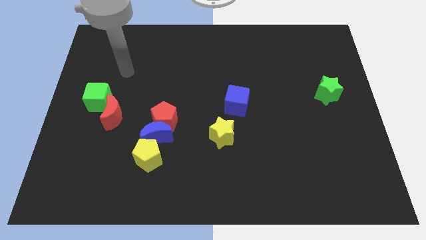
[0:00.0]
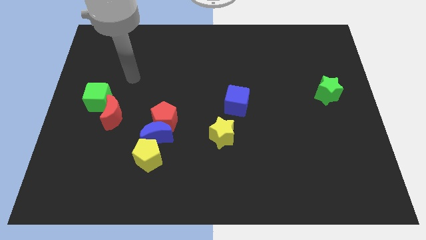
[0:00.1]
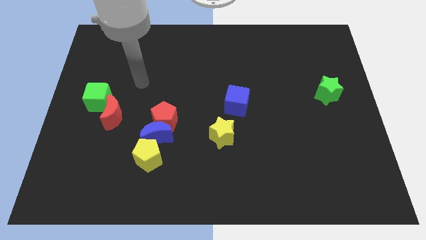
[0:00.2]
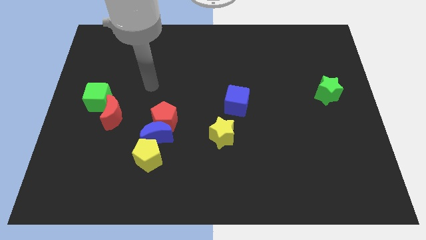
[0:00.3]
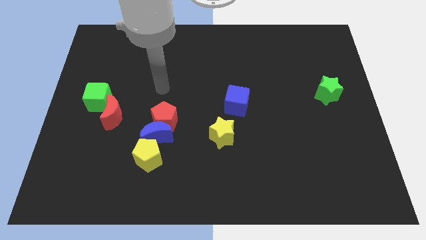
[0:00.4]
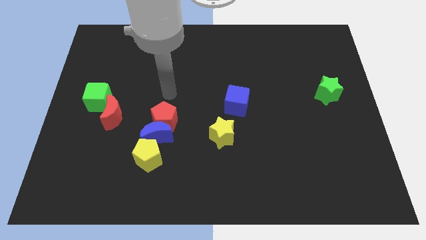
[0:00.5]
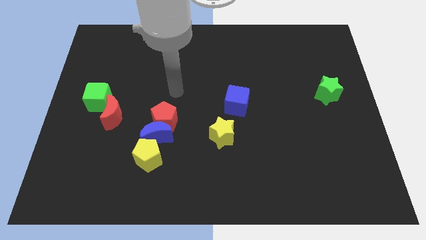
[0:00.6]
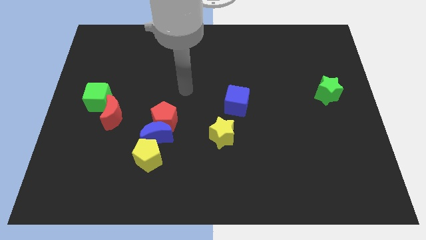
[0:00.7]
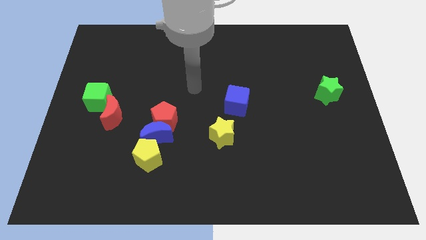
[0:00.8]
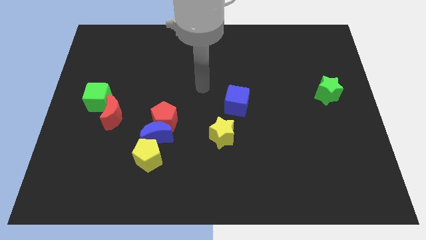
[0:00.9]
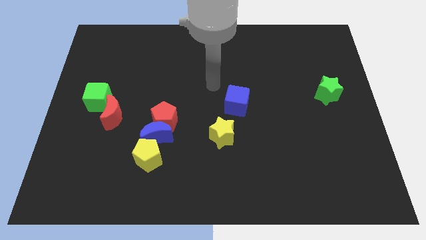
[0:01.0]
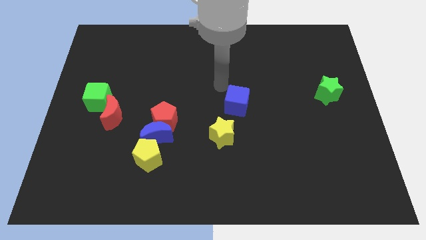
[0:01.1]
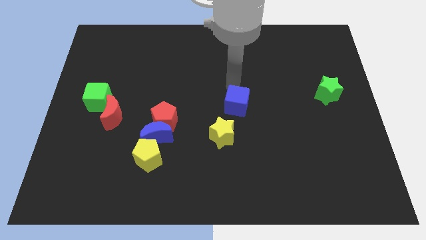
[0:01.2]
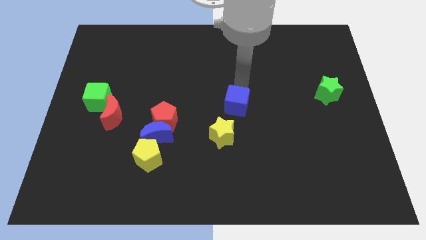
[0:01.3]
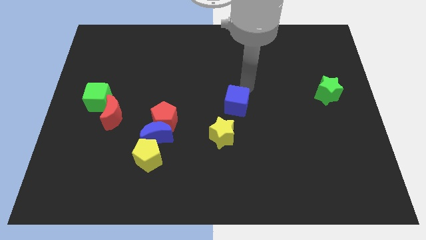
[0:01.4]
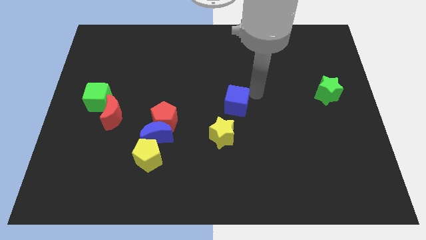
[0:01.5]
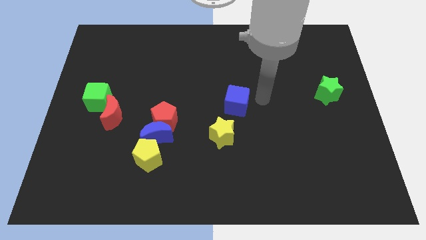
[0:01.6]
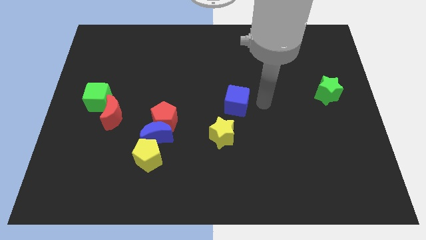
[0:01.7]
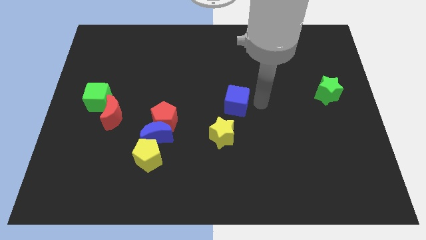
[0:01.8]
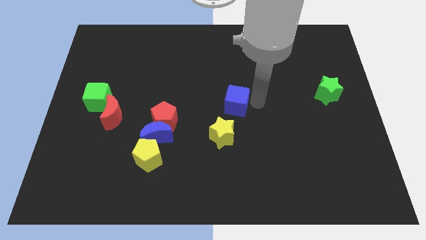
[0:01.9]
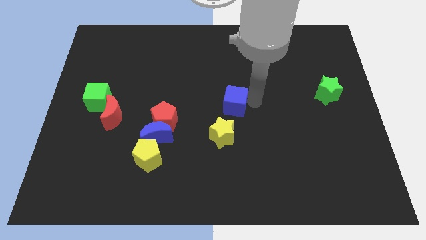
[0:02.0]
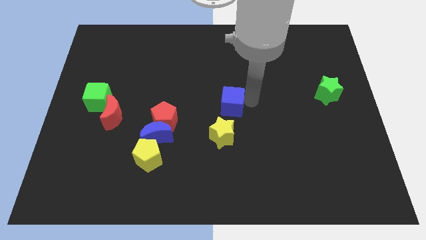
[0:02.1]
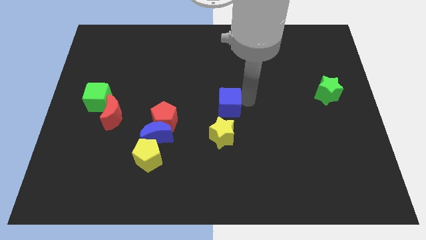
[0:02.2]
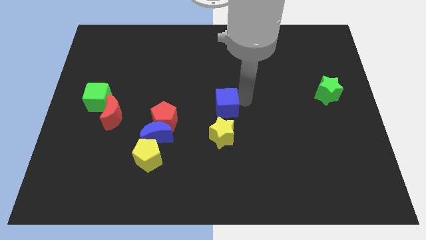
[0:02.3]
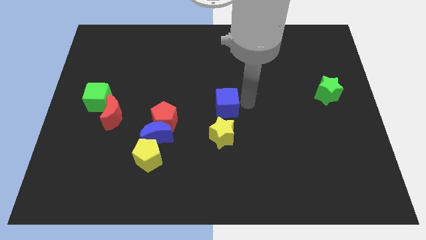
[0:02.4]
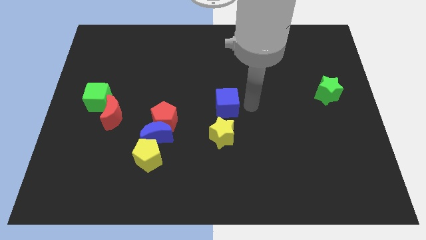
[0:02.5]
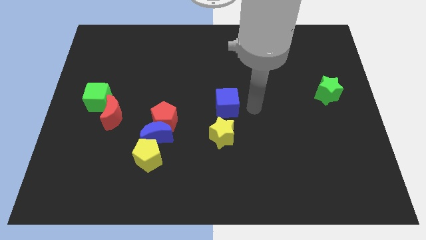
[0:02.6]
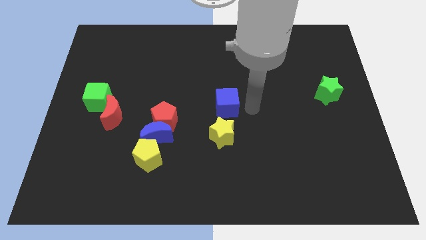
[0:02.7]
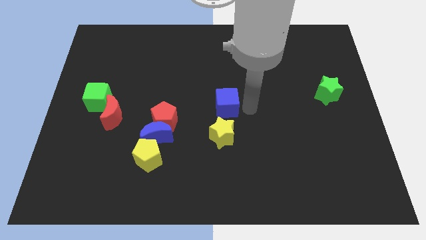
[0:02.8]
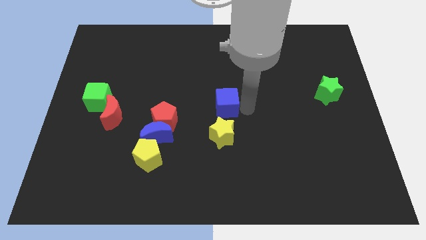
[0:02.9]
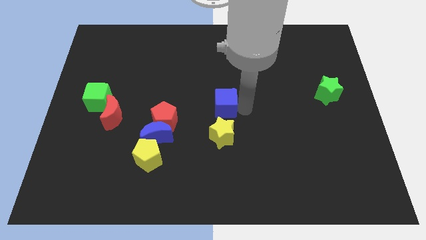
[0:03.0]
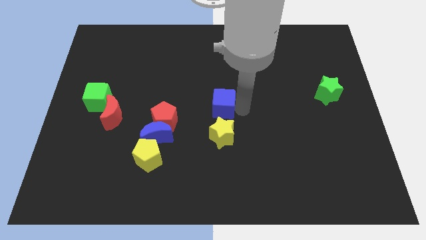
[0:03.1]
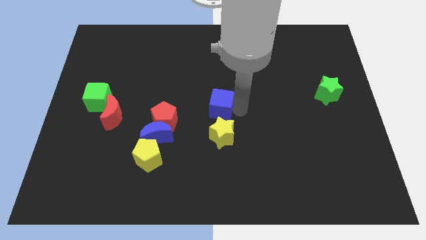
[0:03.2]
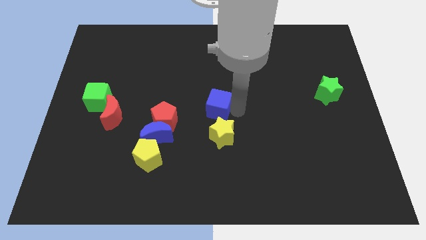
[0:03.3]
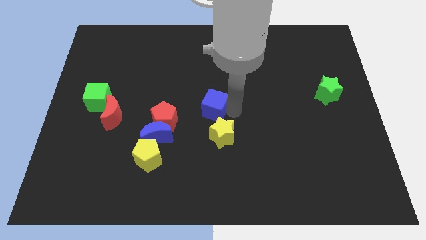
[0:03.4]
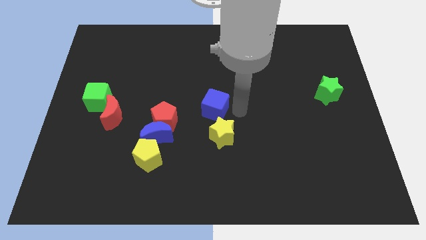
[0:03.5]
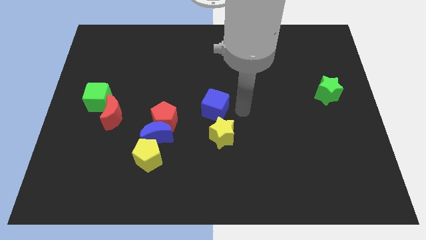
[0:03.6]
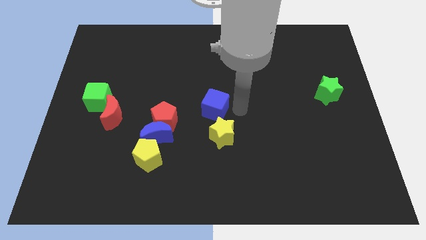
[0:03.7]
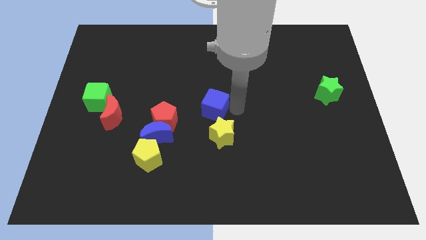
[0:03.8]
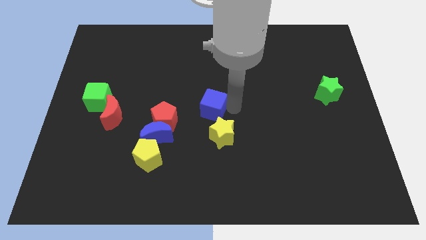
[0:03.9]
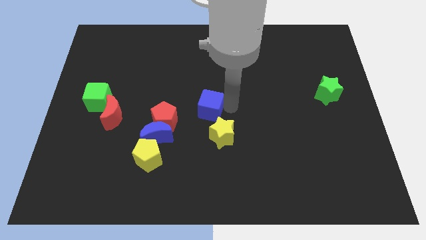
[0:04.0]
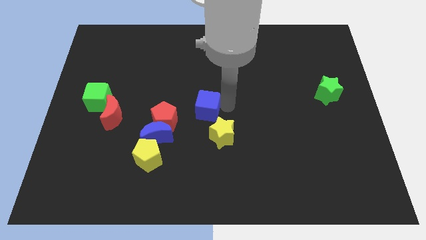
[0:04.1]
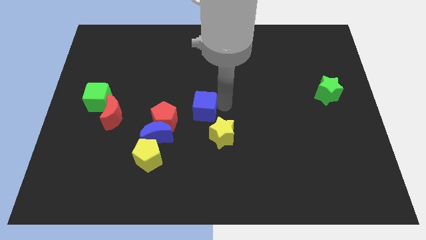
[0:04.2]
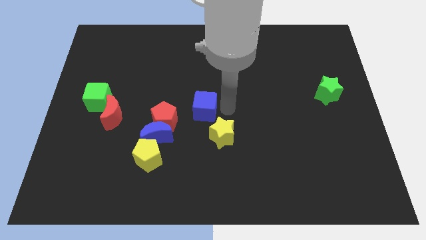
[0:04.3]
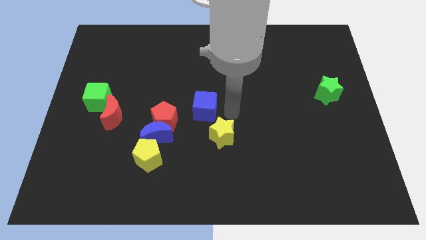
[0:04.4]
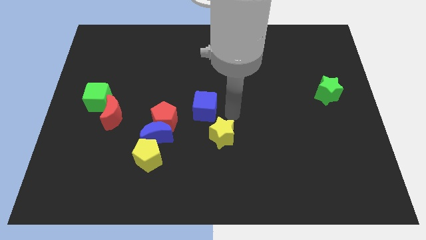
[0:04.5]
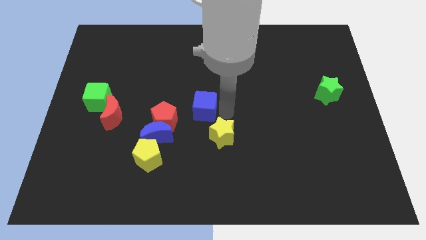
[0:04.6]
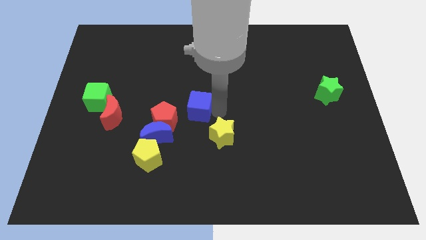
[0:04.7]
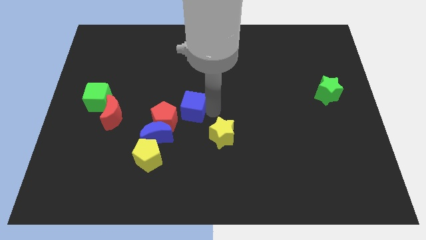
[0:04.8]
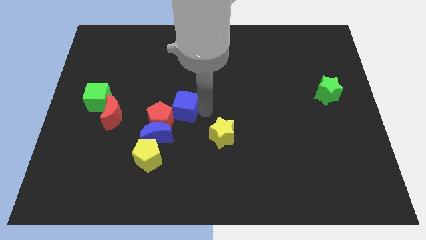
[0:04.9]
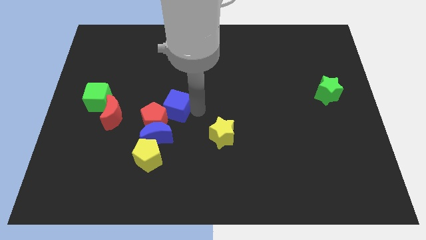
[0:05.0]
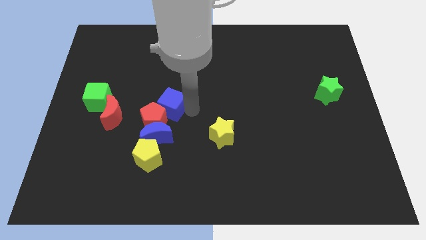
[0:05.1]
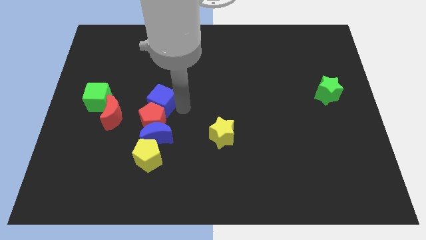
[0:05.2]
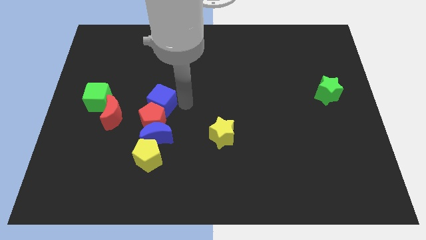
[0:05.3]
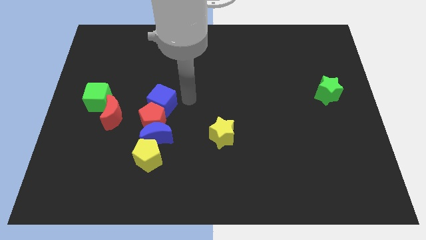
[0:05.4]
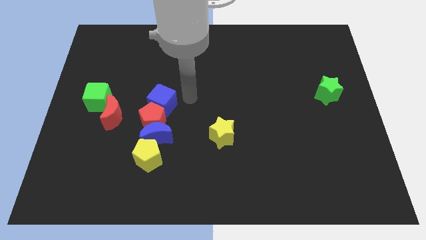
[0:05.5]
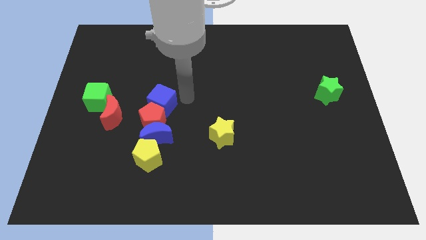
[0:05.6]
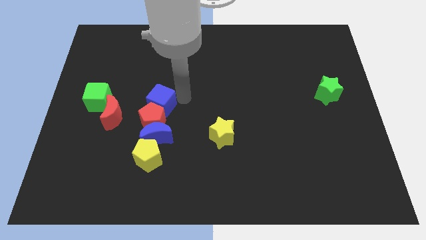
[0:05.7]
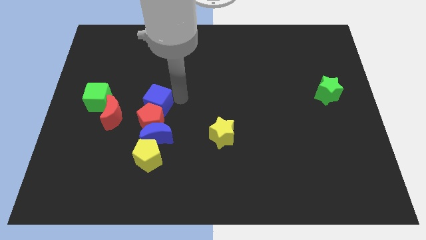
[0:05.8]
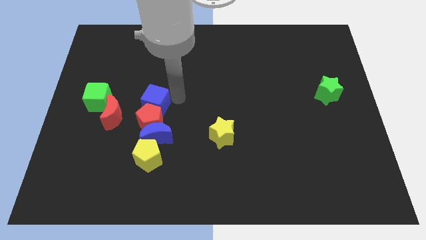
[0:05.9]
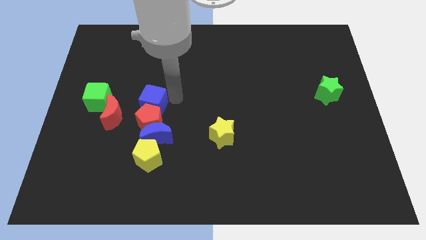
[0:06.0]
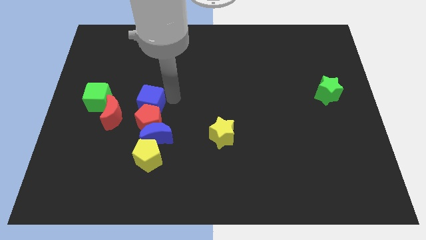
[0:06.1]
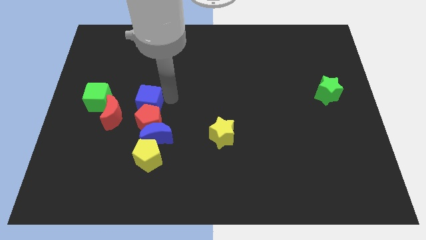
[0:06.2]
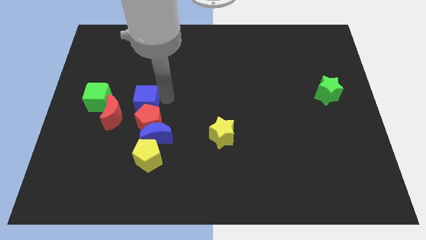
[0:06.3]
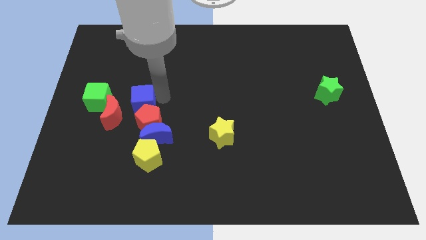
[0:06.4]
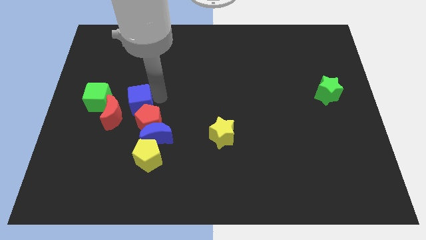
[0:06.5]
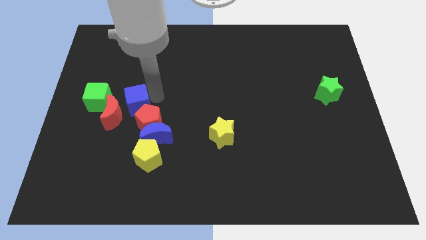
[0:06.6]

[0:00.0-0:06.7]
put the blue cube to the red moon

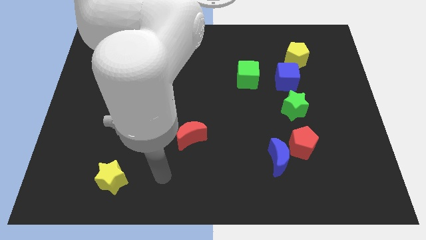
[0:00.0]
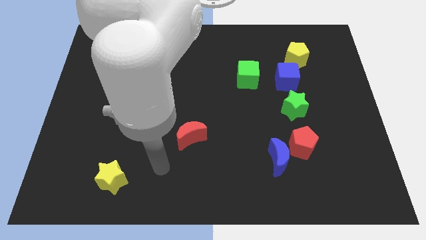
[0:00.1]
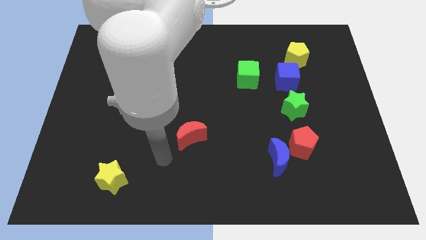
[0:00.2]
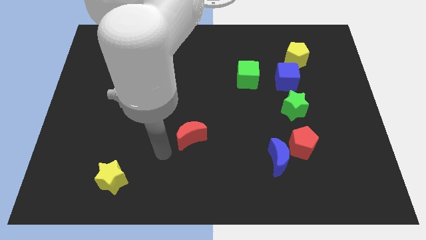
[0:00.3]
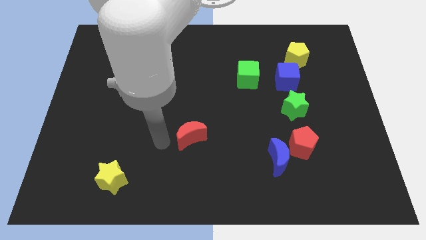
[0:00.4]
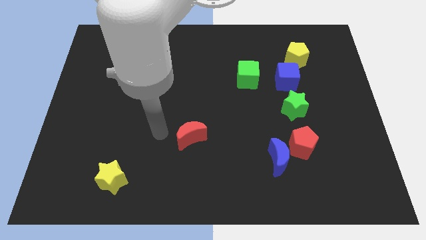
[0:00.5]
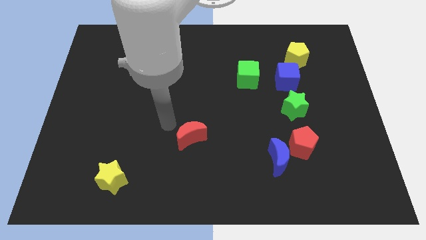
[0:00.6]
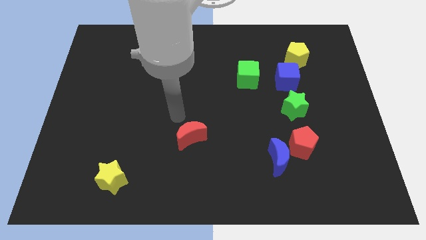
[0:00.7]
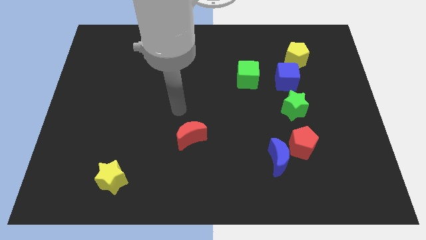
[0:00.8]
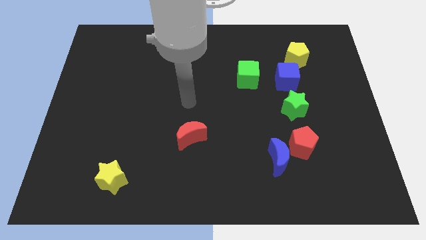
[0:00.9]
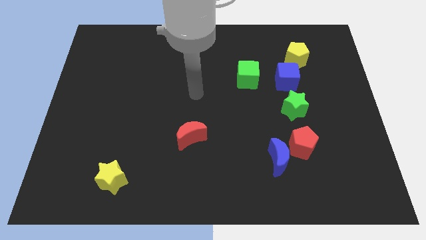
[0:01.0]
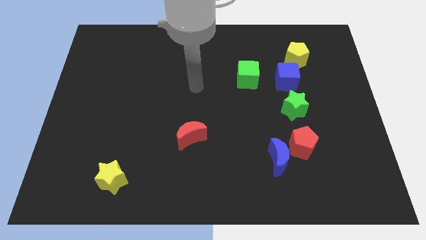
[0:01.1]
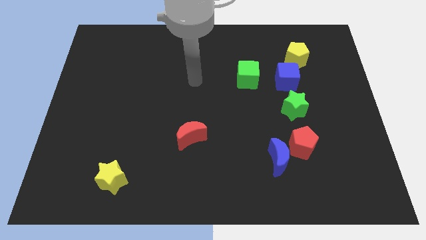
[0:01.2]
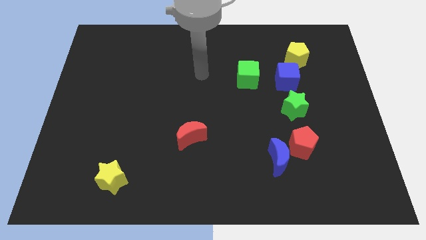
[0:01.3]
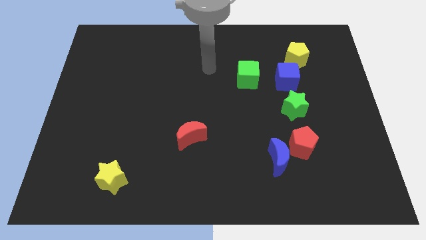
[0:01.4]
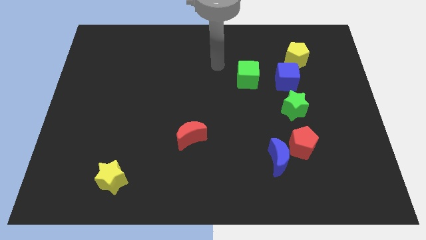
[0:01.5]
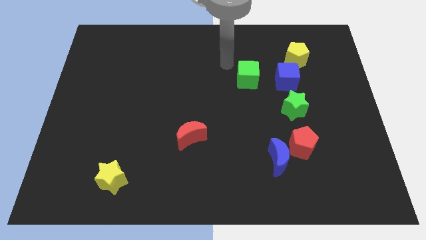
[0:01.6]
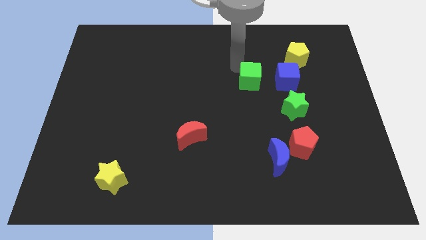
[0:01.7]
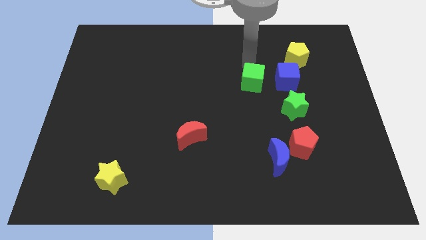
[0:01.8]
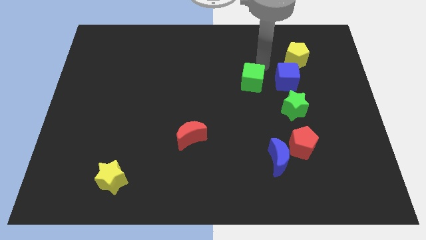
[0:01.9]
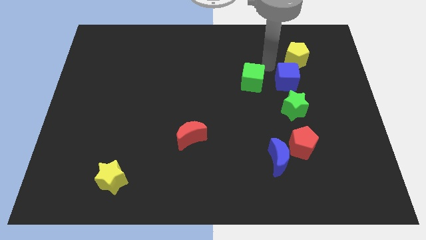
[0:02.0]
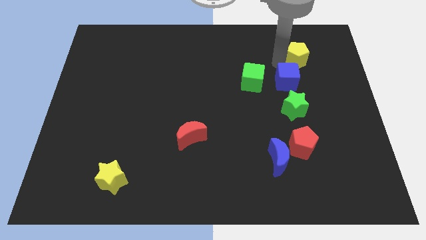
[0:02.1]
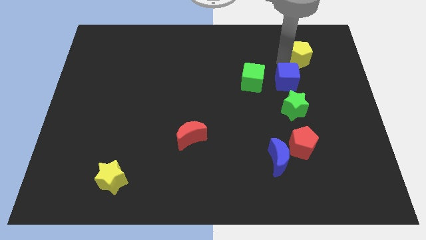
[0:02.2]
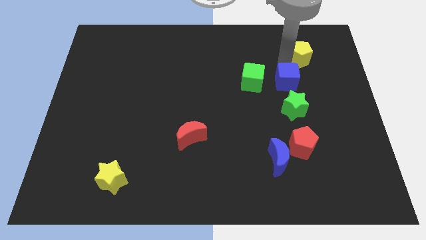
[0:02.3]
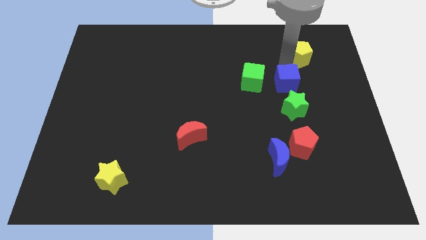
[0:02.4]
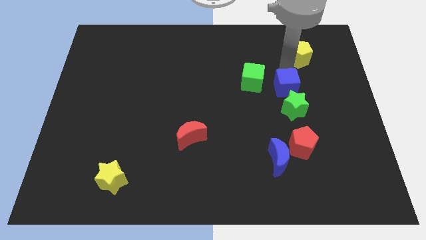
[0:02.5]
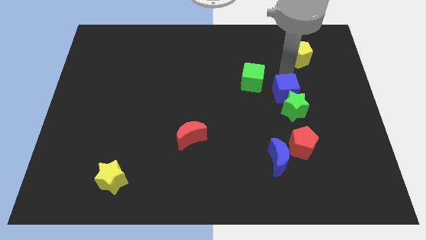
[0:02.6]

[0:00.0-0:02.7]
move the blue cube close to the green star
